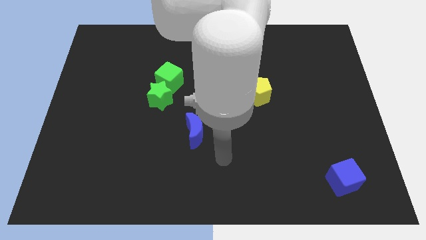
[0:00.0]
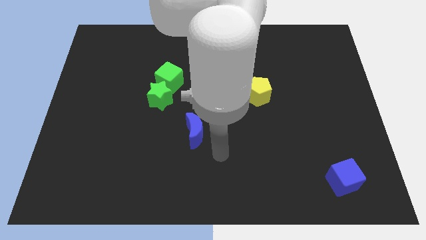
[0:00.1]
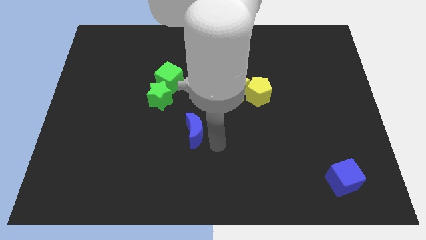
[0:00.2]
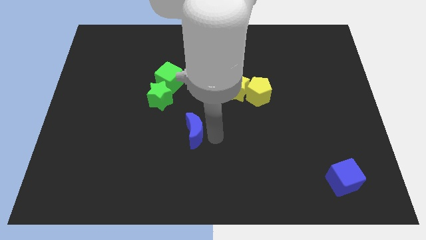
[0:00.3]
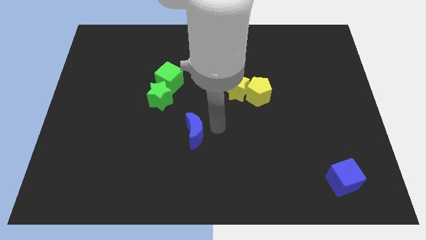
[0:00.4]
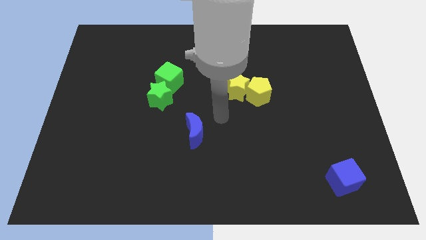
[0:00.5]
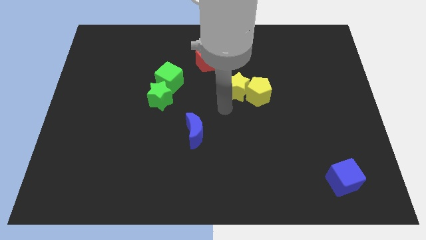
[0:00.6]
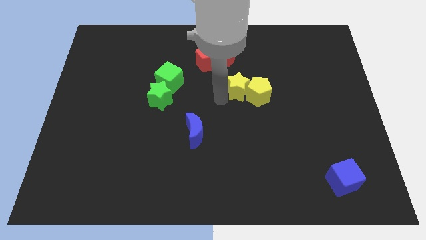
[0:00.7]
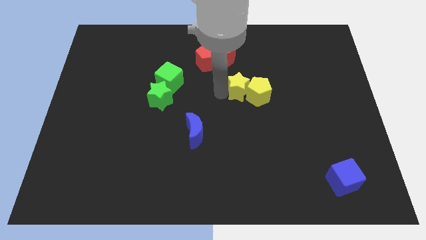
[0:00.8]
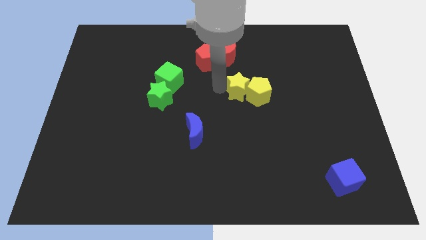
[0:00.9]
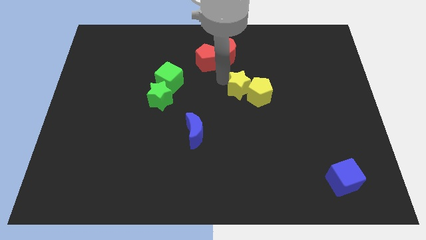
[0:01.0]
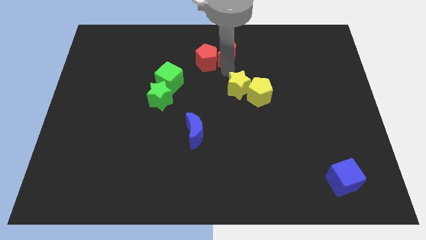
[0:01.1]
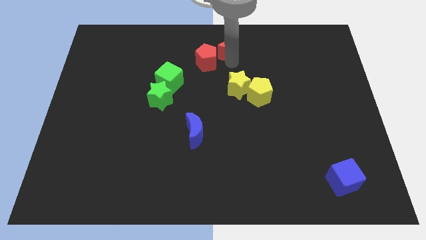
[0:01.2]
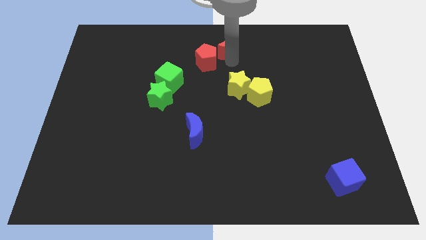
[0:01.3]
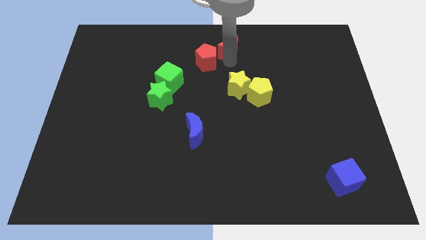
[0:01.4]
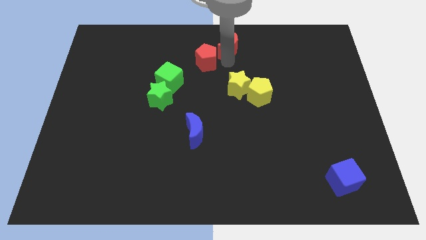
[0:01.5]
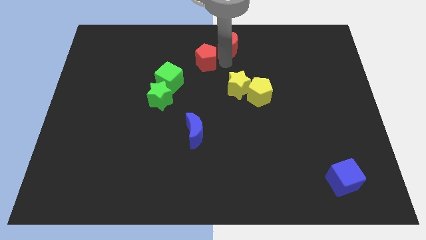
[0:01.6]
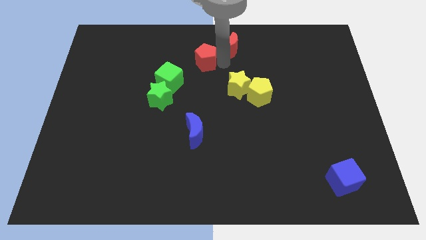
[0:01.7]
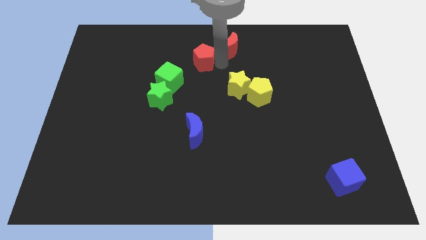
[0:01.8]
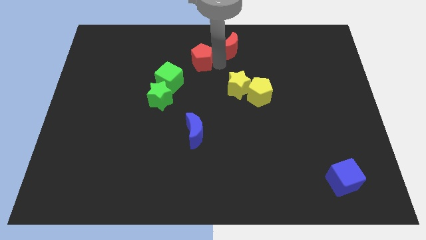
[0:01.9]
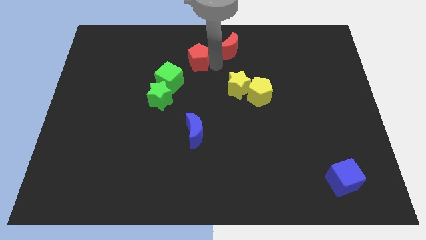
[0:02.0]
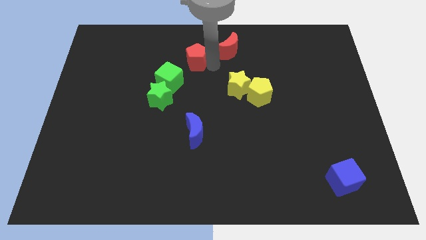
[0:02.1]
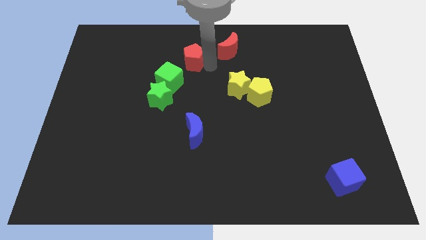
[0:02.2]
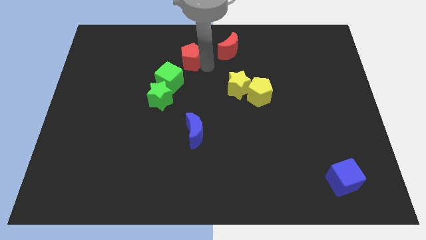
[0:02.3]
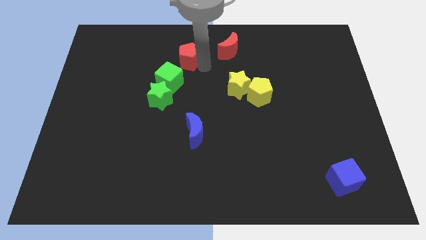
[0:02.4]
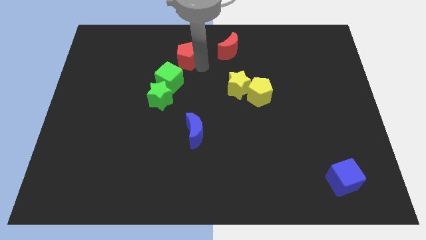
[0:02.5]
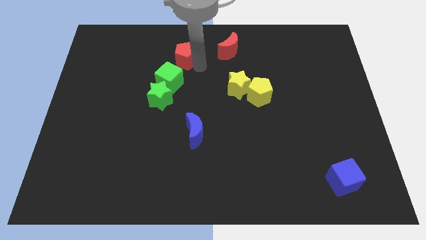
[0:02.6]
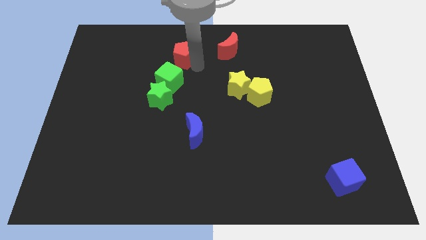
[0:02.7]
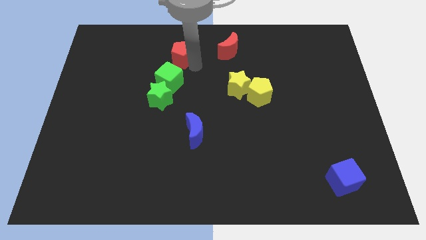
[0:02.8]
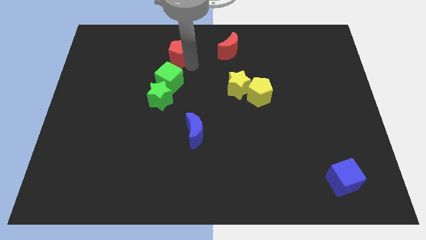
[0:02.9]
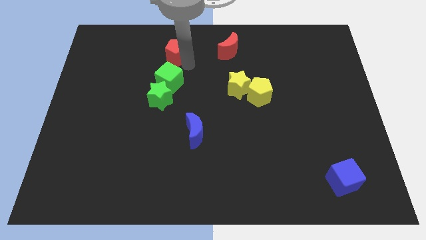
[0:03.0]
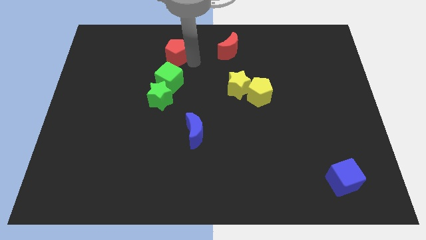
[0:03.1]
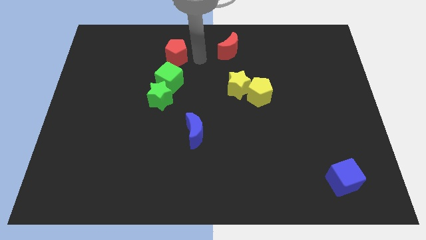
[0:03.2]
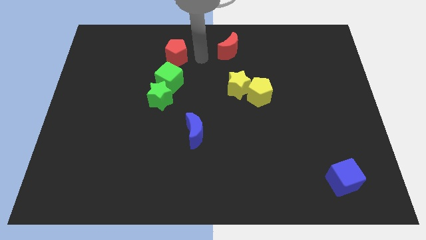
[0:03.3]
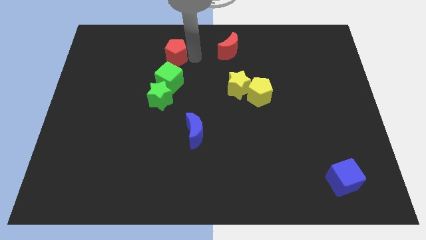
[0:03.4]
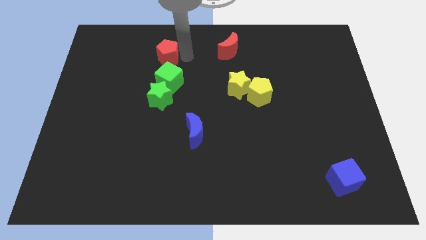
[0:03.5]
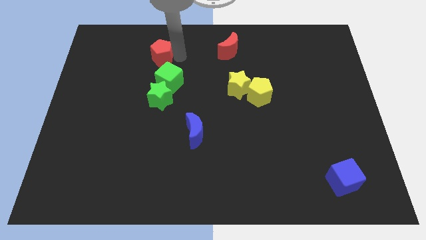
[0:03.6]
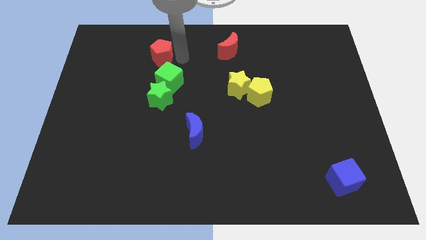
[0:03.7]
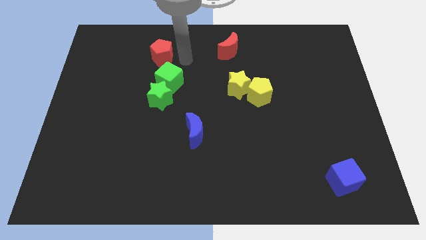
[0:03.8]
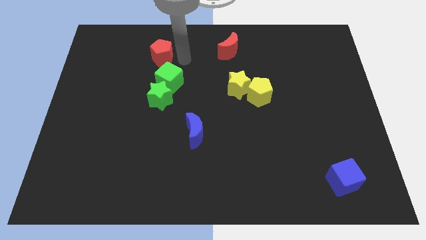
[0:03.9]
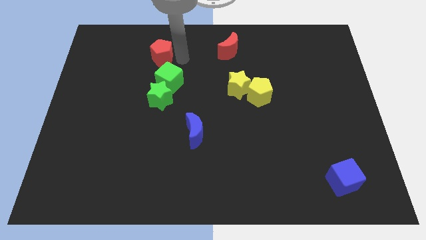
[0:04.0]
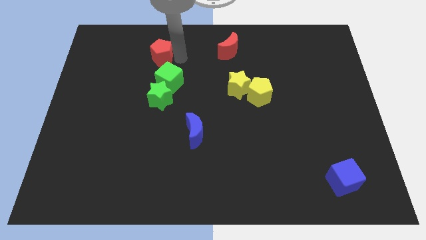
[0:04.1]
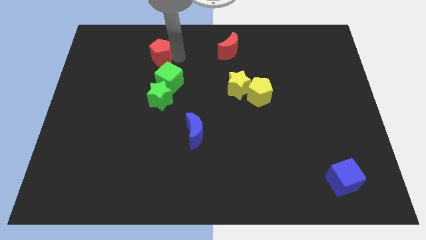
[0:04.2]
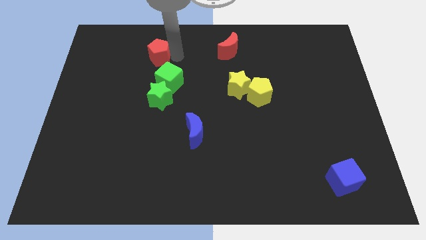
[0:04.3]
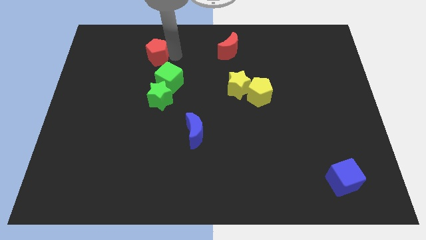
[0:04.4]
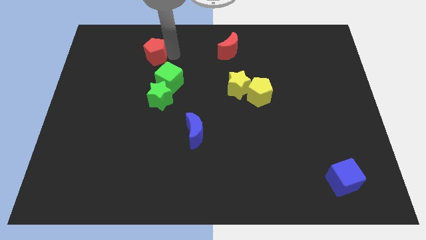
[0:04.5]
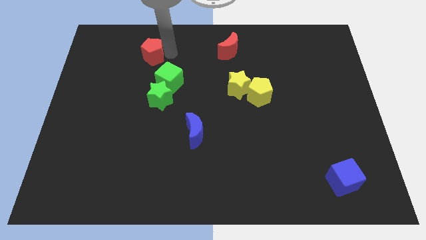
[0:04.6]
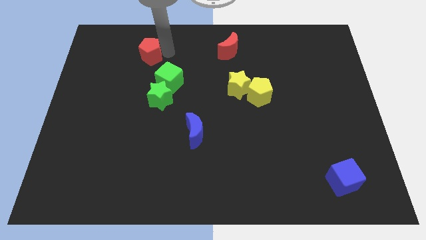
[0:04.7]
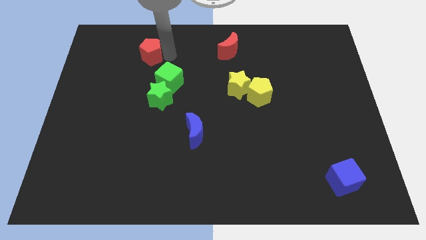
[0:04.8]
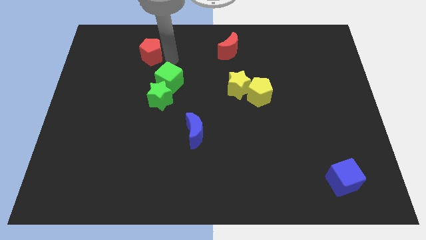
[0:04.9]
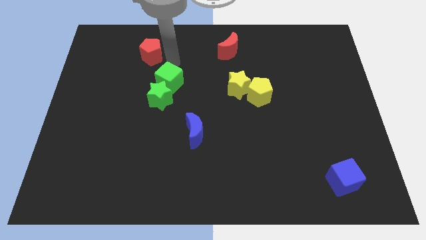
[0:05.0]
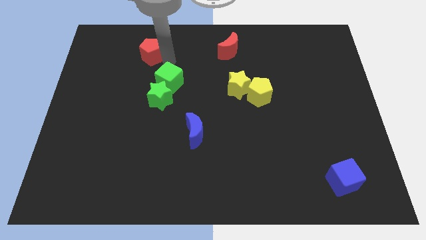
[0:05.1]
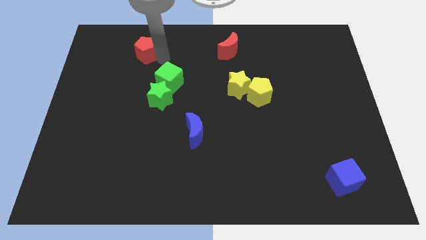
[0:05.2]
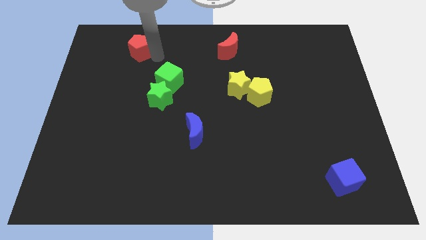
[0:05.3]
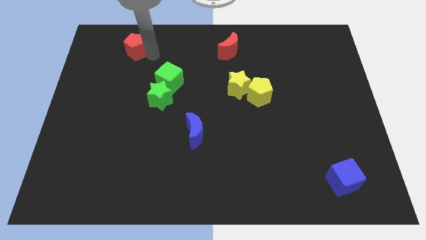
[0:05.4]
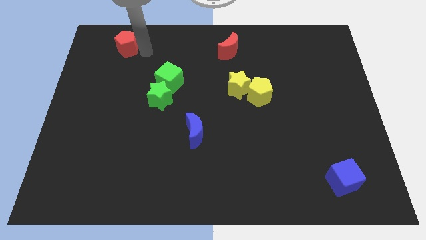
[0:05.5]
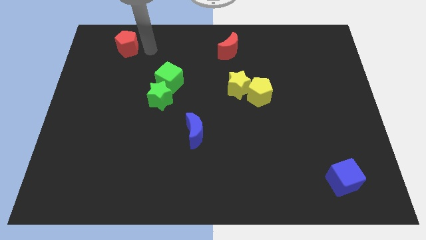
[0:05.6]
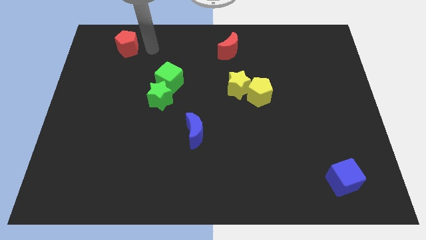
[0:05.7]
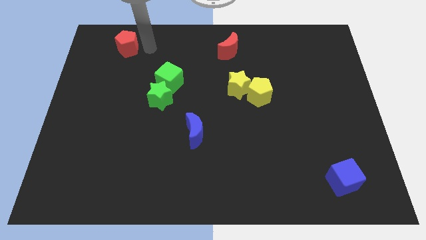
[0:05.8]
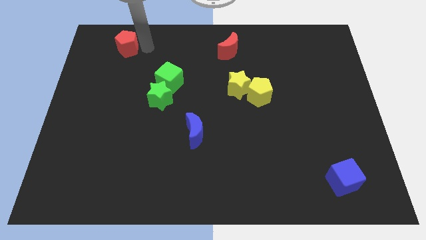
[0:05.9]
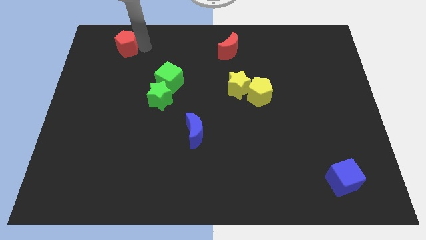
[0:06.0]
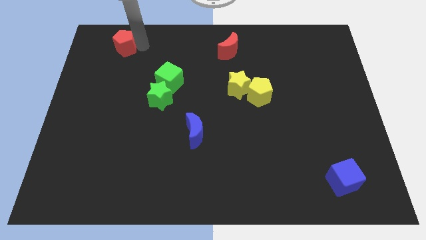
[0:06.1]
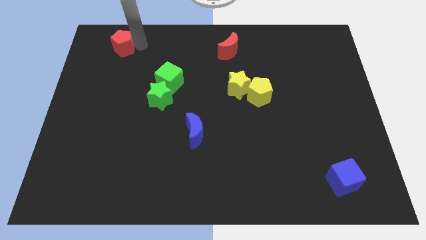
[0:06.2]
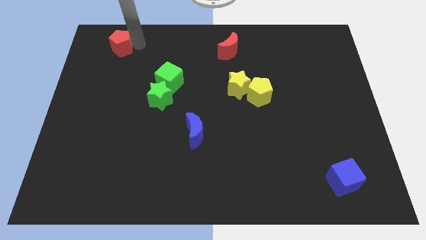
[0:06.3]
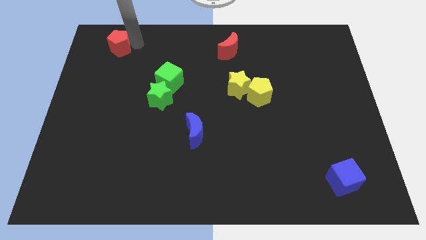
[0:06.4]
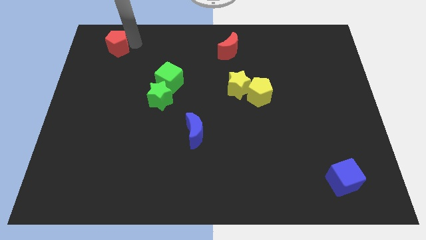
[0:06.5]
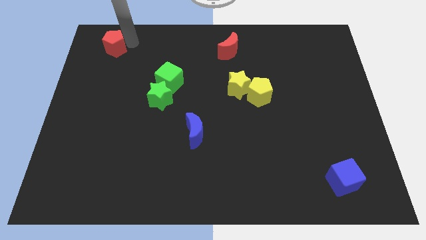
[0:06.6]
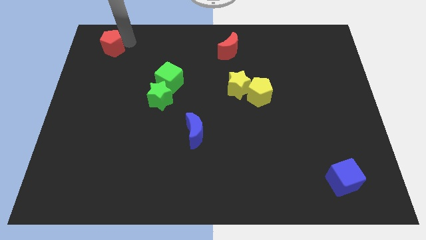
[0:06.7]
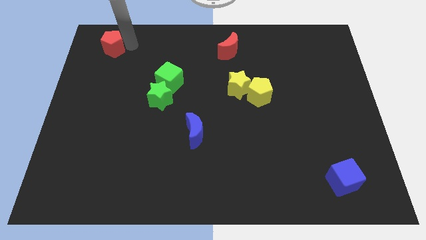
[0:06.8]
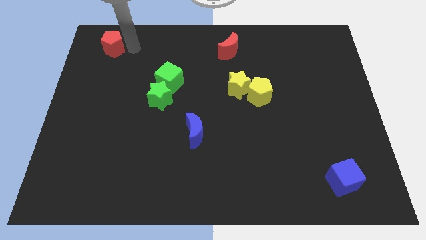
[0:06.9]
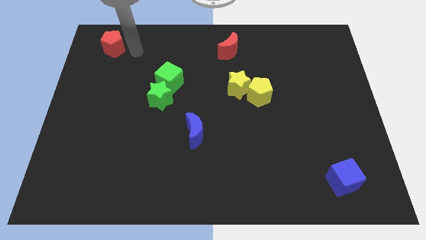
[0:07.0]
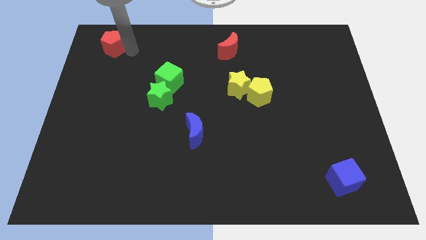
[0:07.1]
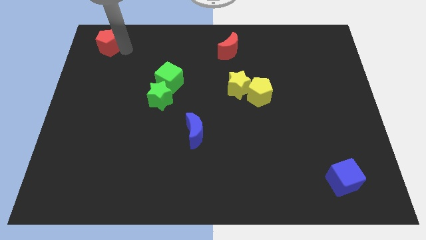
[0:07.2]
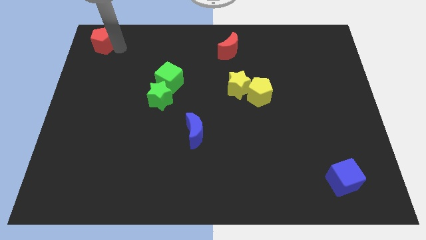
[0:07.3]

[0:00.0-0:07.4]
move the red pentagon to the top left corner
